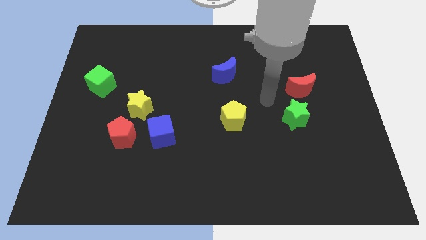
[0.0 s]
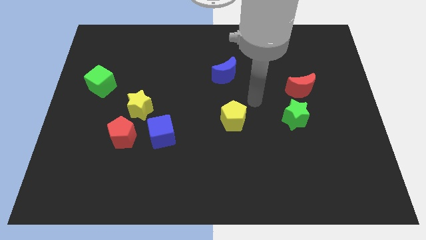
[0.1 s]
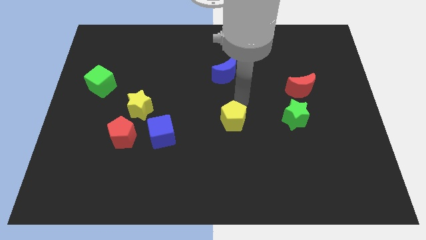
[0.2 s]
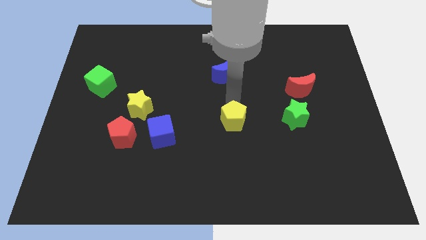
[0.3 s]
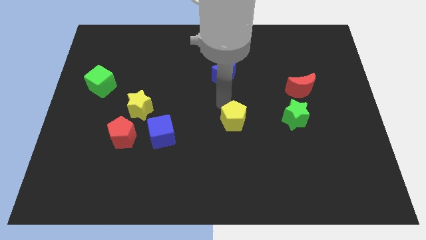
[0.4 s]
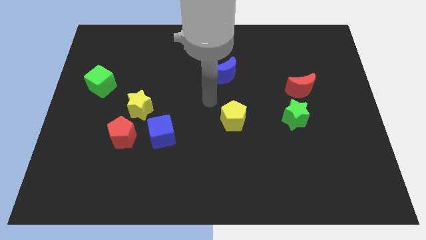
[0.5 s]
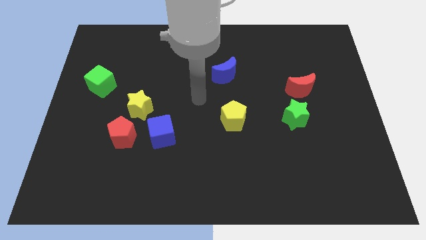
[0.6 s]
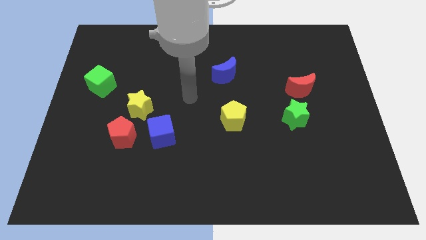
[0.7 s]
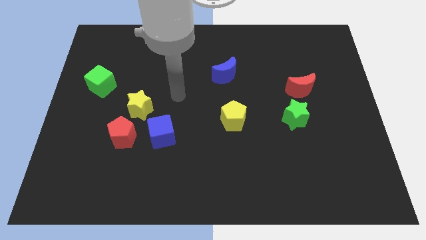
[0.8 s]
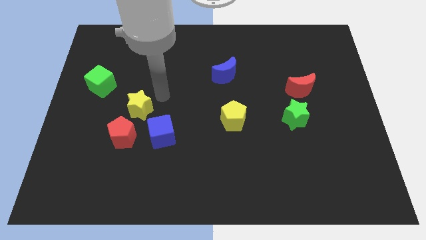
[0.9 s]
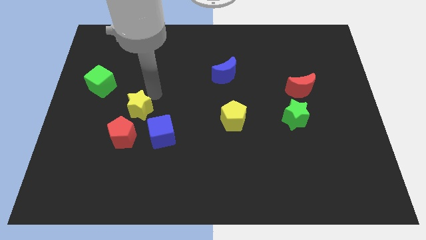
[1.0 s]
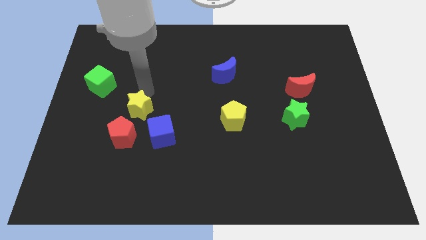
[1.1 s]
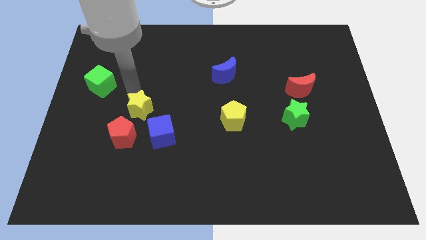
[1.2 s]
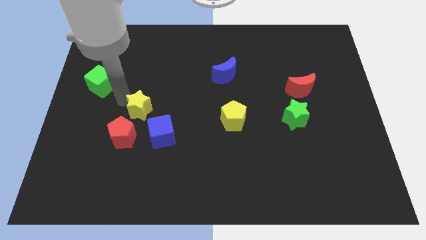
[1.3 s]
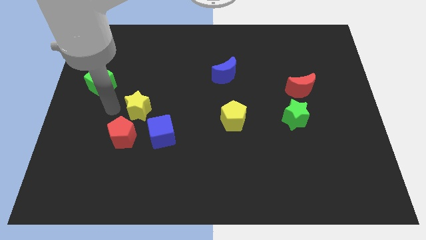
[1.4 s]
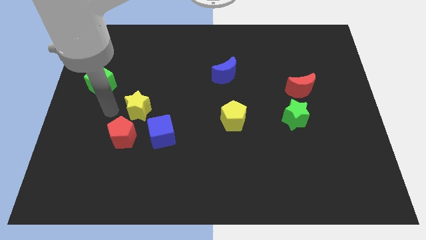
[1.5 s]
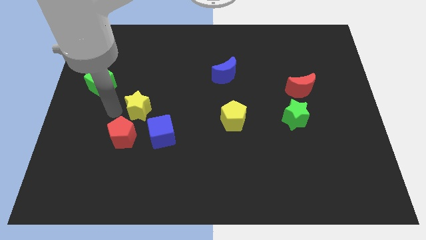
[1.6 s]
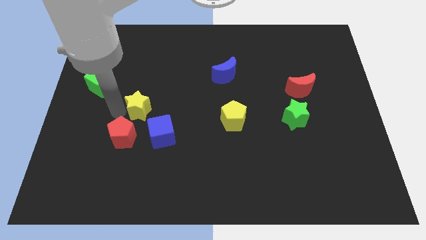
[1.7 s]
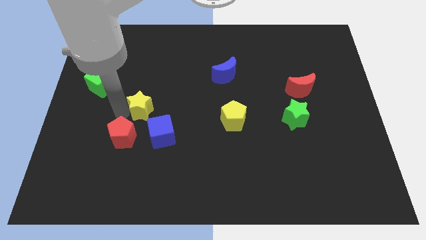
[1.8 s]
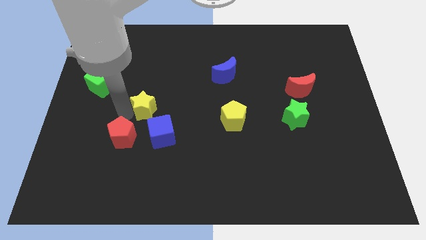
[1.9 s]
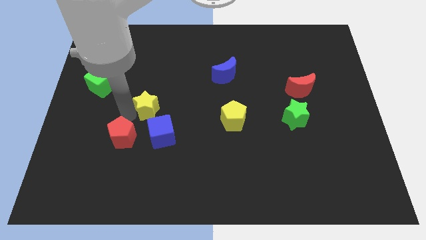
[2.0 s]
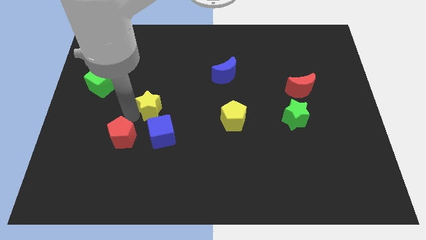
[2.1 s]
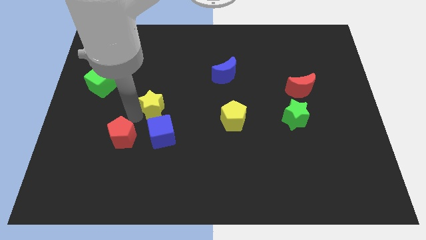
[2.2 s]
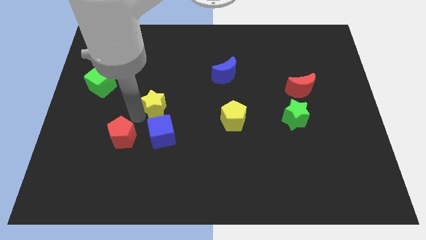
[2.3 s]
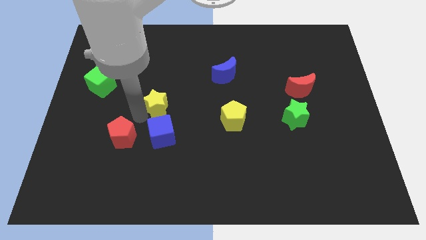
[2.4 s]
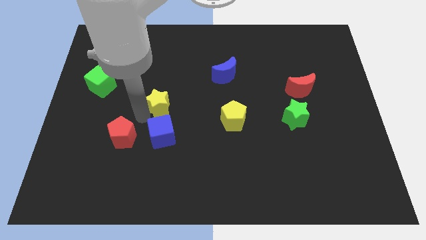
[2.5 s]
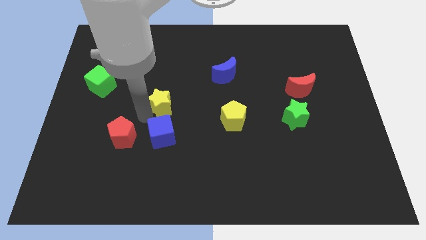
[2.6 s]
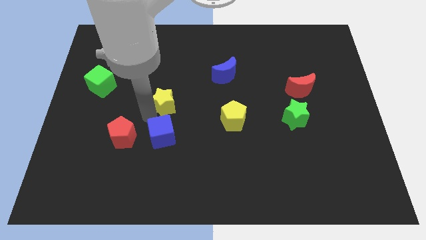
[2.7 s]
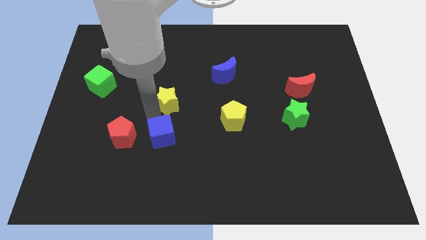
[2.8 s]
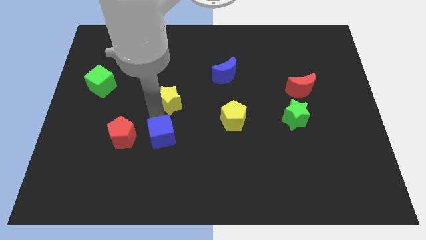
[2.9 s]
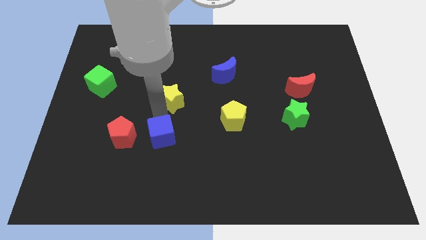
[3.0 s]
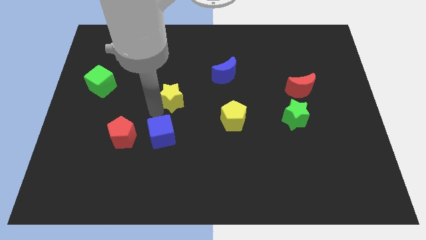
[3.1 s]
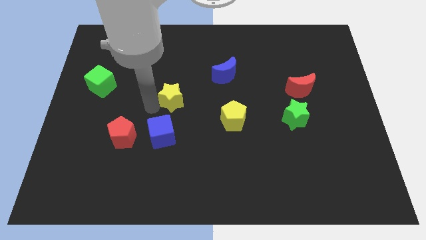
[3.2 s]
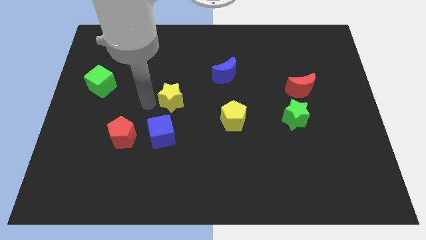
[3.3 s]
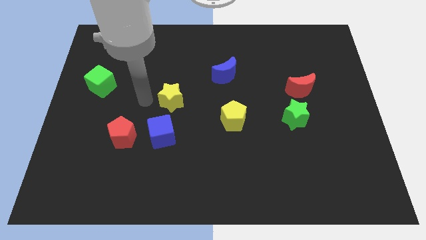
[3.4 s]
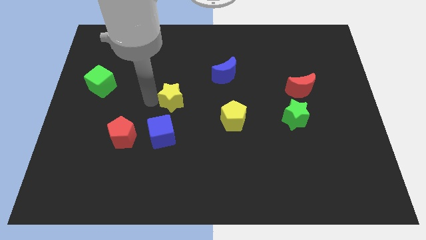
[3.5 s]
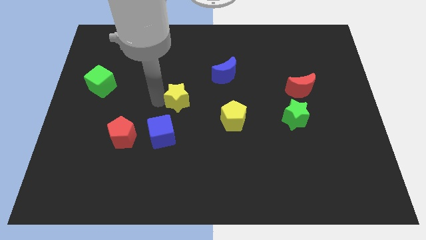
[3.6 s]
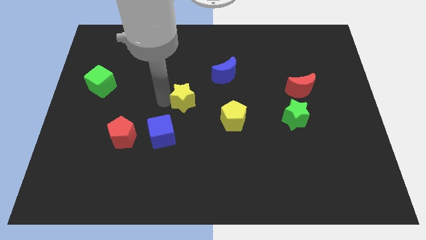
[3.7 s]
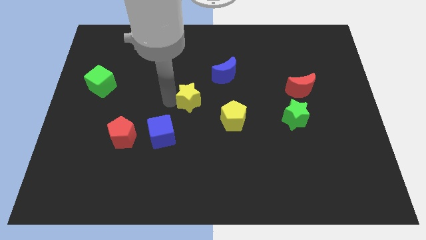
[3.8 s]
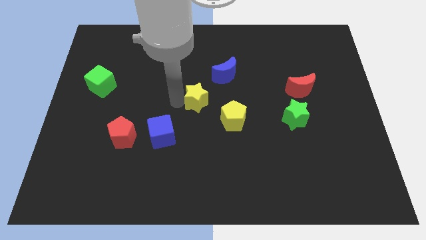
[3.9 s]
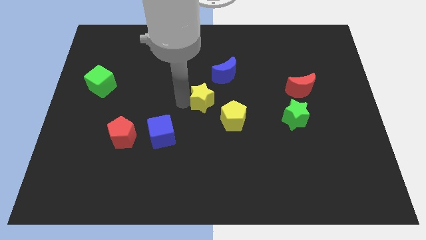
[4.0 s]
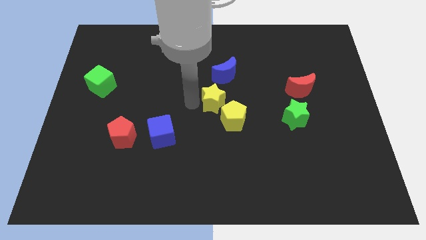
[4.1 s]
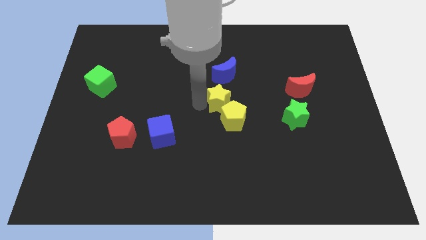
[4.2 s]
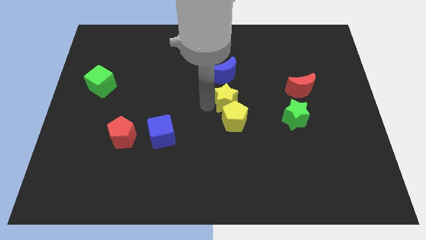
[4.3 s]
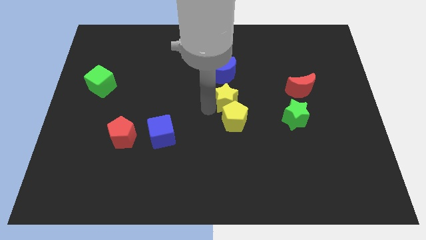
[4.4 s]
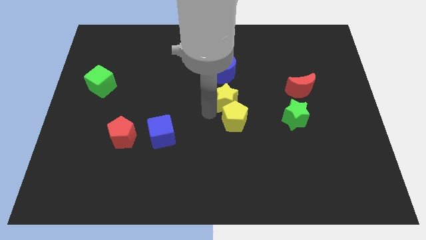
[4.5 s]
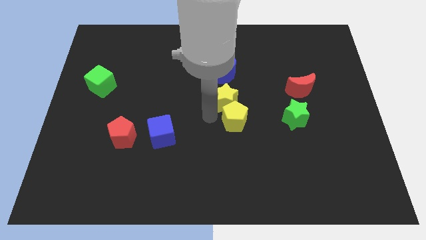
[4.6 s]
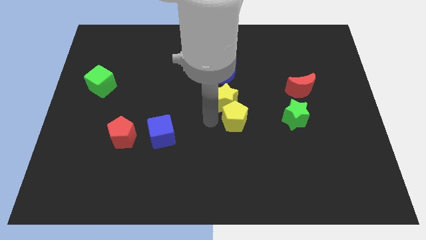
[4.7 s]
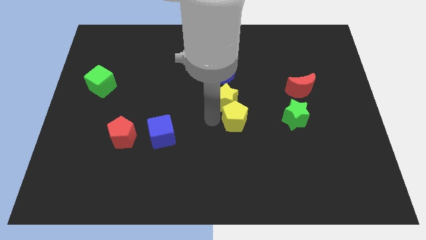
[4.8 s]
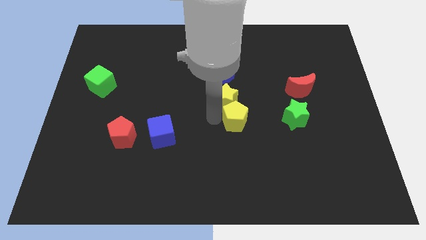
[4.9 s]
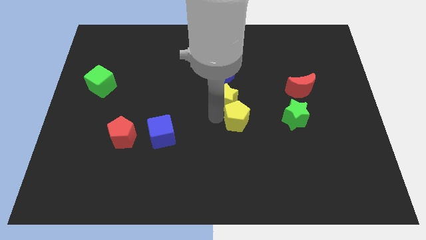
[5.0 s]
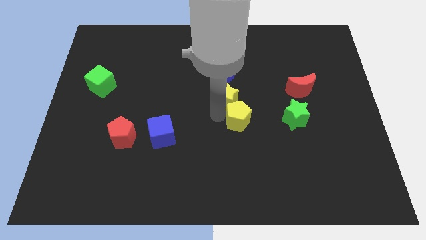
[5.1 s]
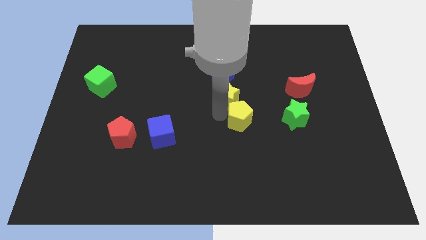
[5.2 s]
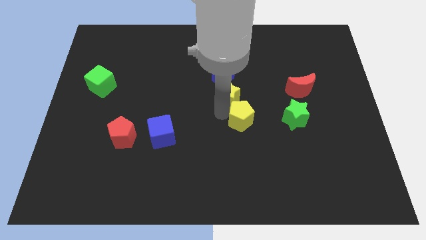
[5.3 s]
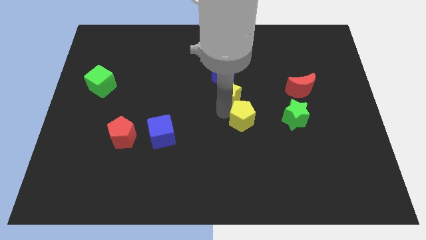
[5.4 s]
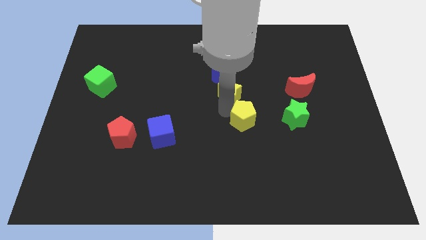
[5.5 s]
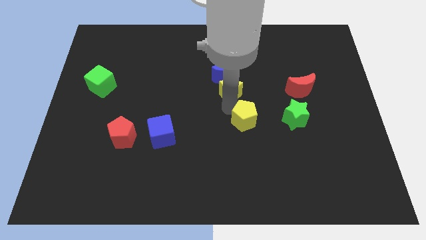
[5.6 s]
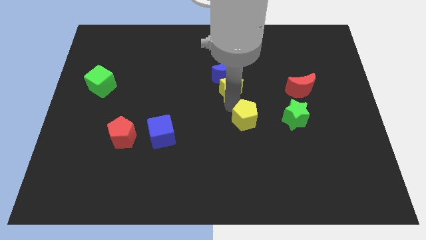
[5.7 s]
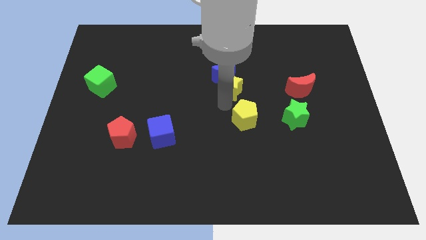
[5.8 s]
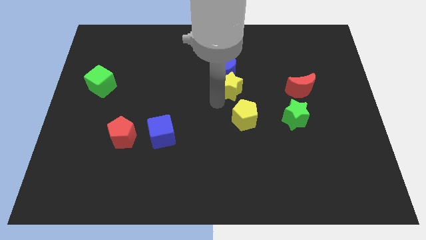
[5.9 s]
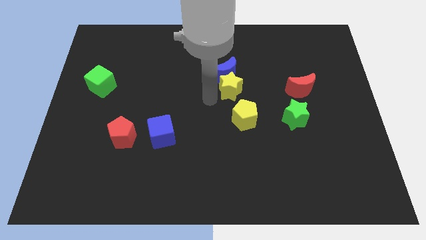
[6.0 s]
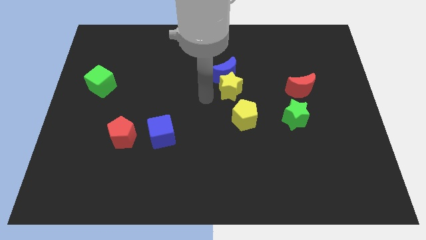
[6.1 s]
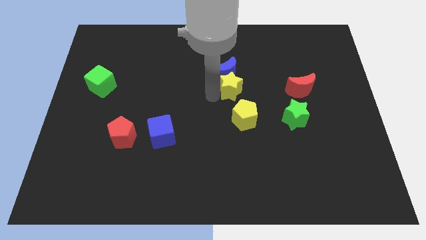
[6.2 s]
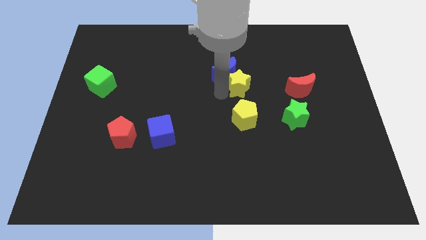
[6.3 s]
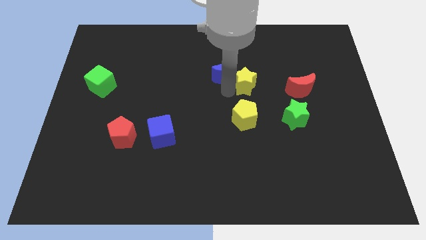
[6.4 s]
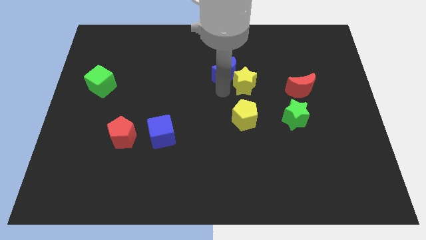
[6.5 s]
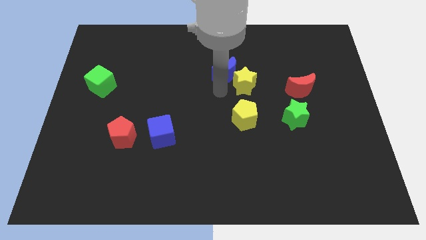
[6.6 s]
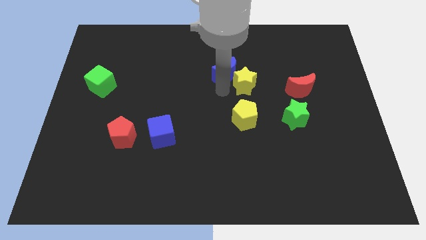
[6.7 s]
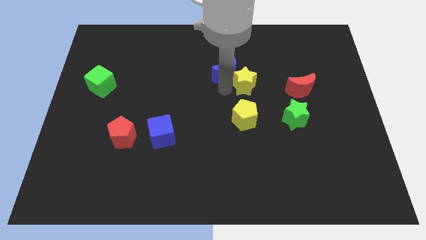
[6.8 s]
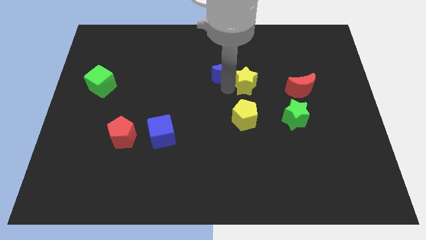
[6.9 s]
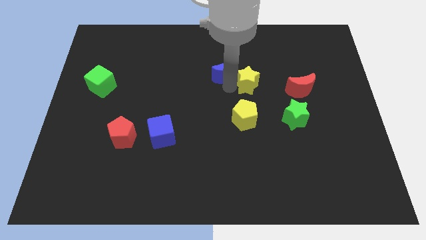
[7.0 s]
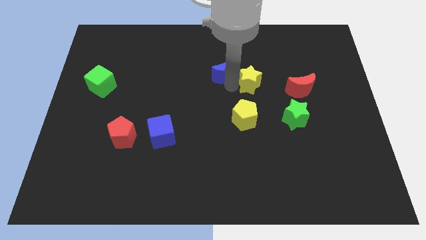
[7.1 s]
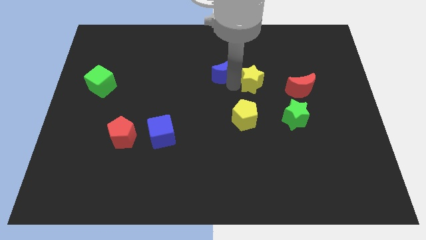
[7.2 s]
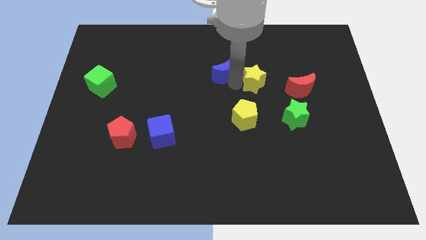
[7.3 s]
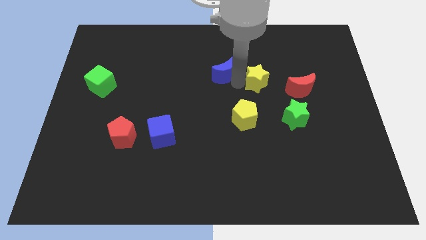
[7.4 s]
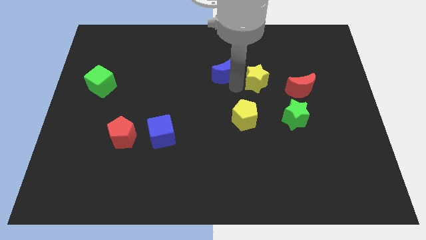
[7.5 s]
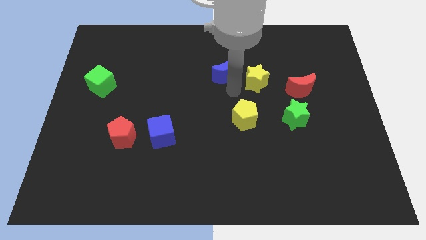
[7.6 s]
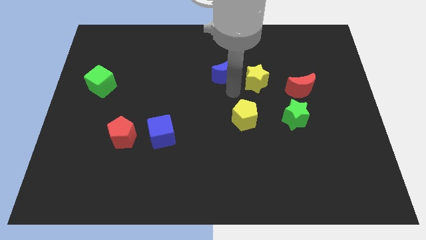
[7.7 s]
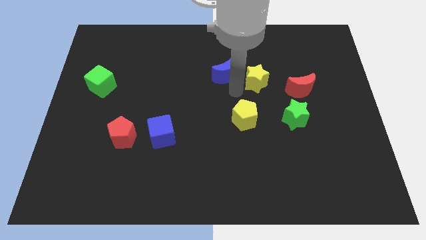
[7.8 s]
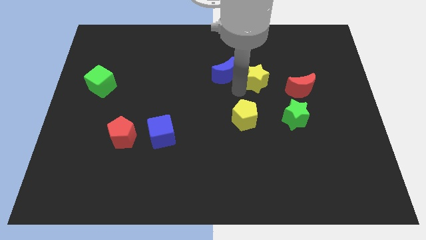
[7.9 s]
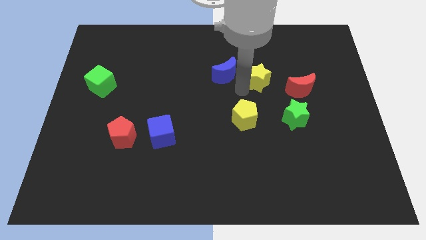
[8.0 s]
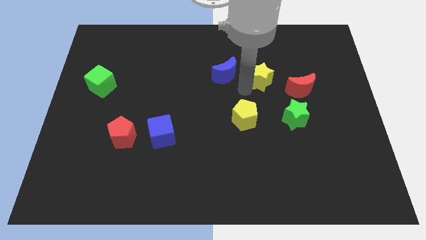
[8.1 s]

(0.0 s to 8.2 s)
put the yellow star diagonally up and to the left of the red moon
